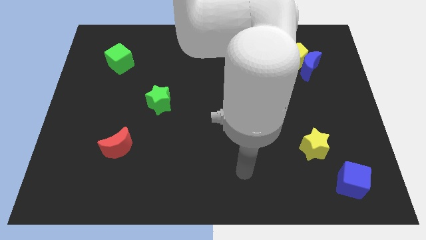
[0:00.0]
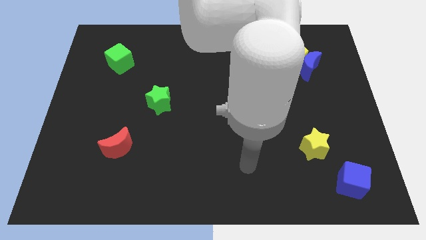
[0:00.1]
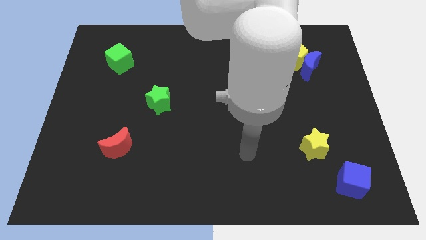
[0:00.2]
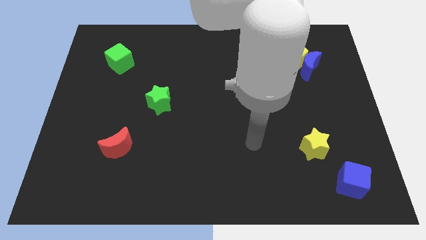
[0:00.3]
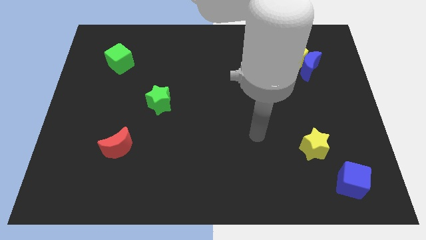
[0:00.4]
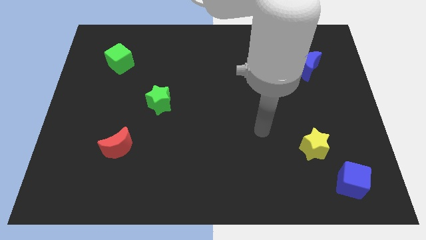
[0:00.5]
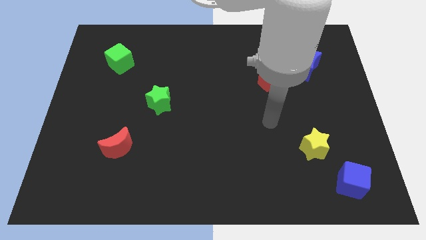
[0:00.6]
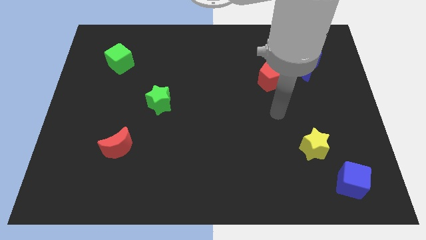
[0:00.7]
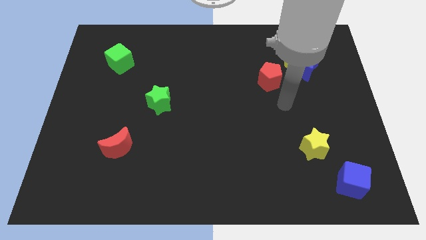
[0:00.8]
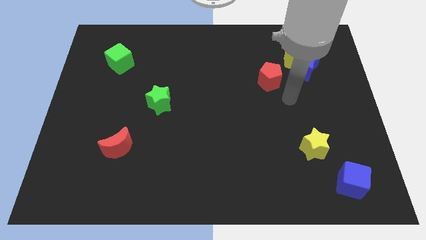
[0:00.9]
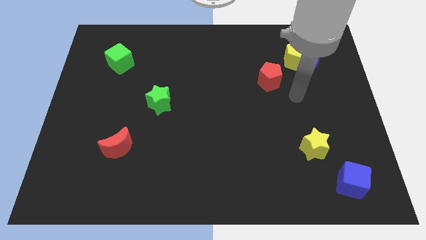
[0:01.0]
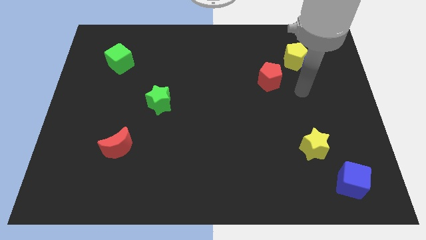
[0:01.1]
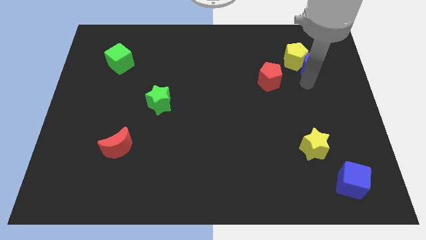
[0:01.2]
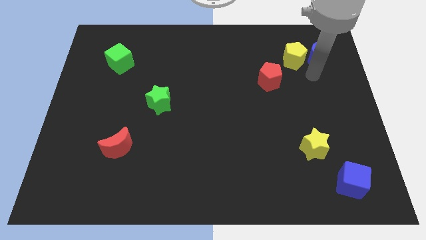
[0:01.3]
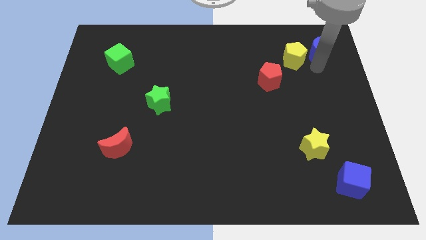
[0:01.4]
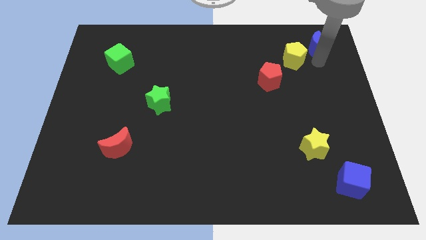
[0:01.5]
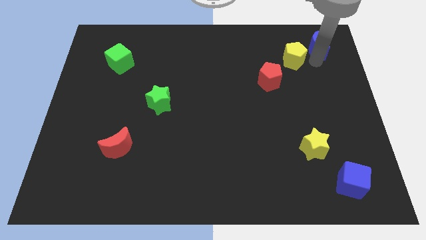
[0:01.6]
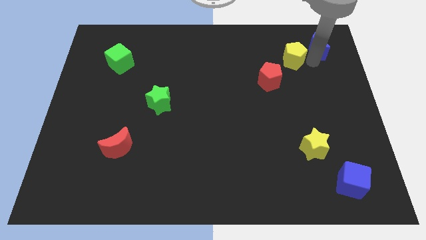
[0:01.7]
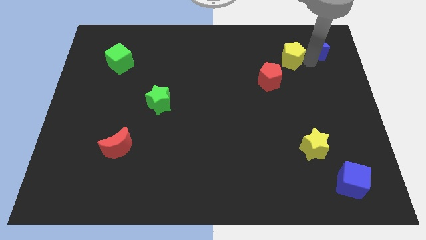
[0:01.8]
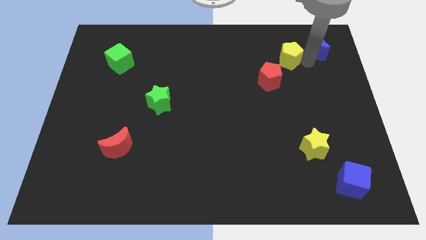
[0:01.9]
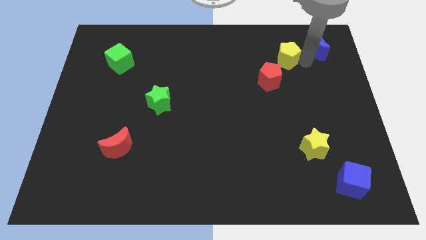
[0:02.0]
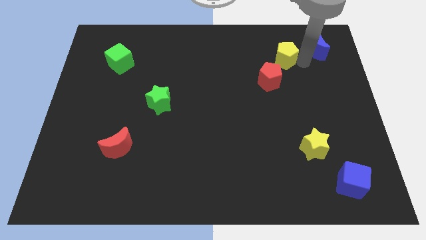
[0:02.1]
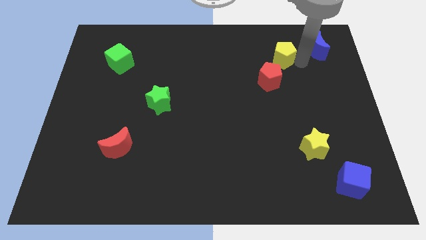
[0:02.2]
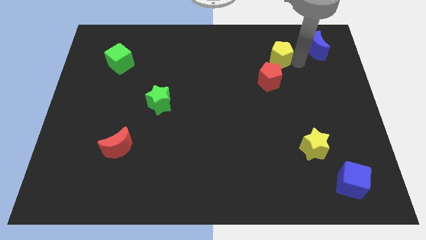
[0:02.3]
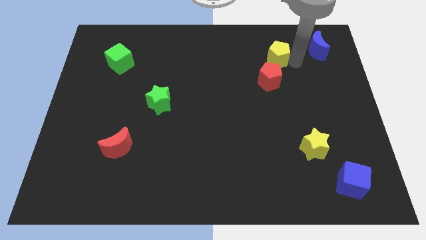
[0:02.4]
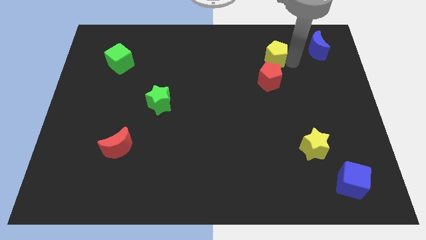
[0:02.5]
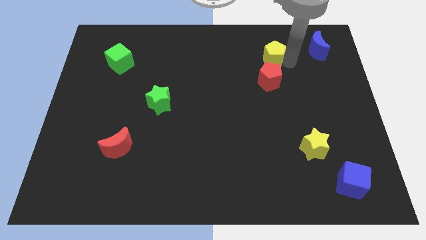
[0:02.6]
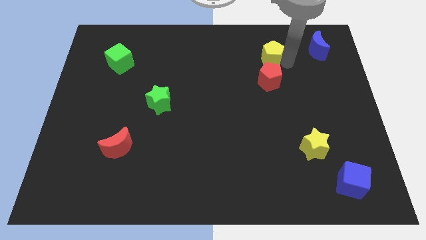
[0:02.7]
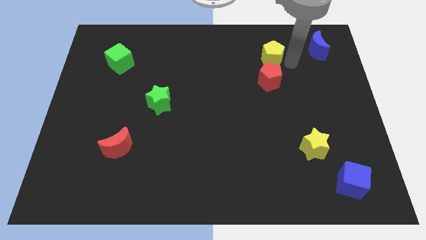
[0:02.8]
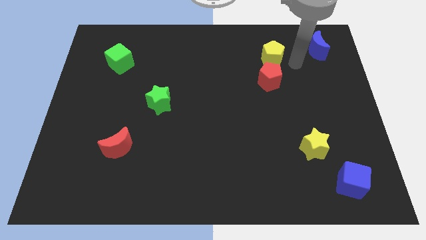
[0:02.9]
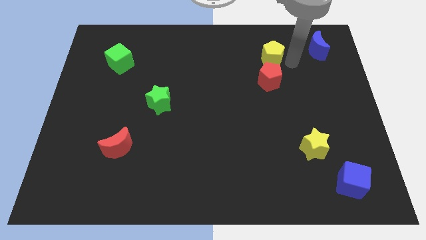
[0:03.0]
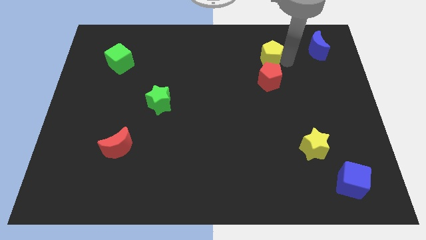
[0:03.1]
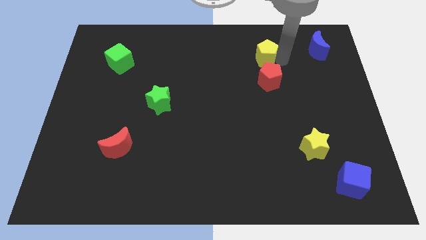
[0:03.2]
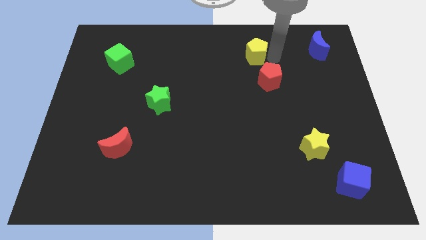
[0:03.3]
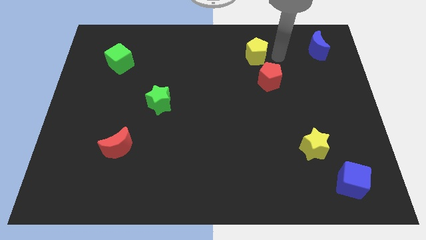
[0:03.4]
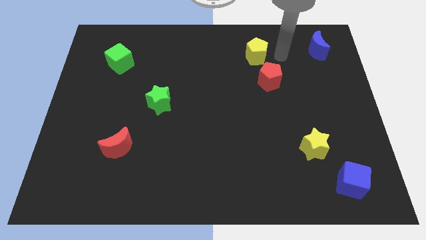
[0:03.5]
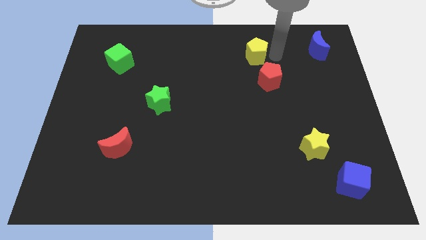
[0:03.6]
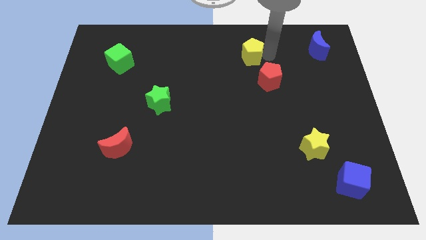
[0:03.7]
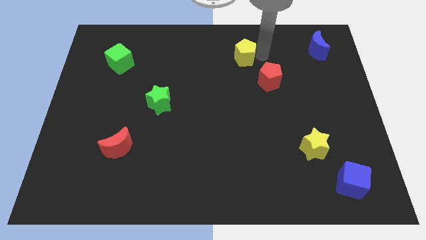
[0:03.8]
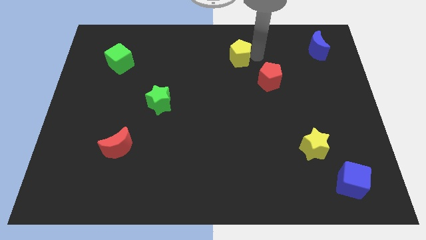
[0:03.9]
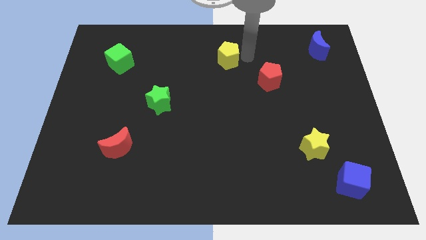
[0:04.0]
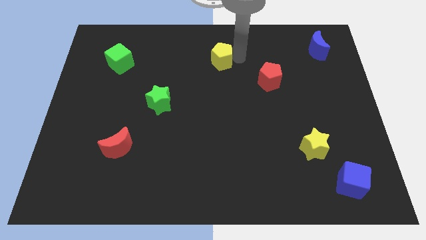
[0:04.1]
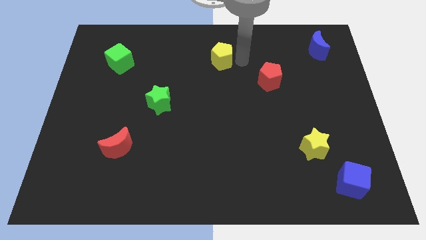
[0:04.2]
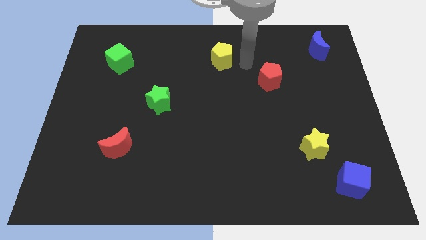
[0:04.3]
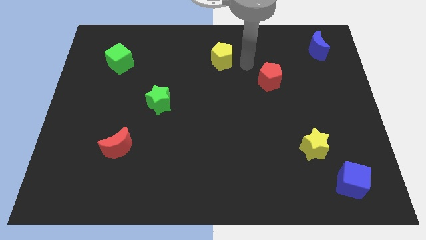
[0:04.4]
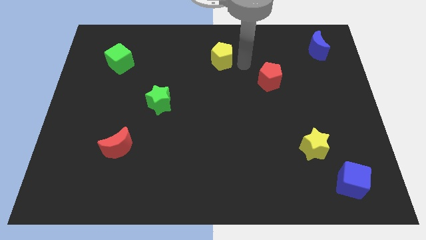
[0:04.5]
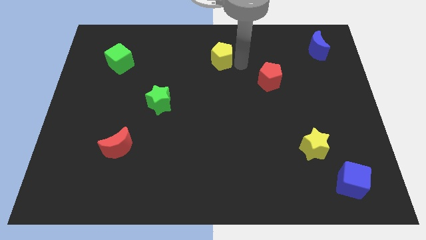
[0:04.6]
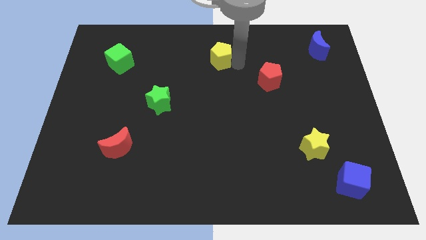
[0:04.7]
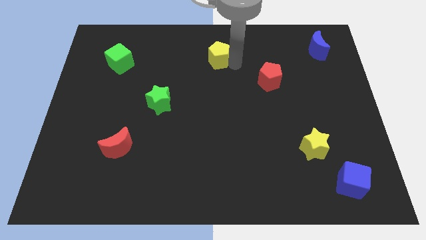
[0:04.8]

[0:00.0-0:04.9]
slide the yellow pentagon left

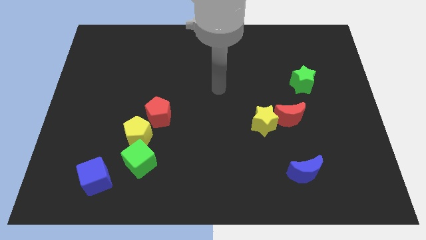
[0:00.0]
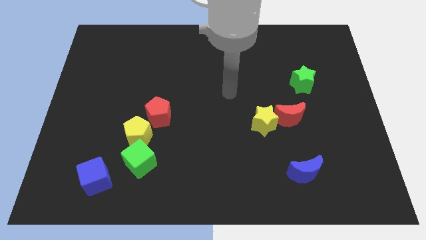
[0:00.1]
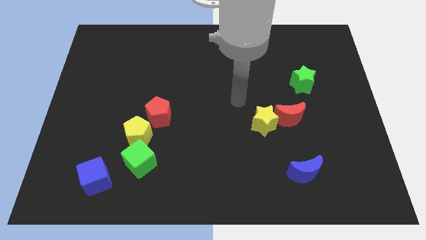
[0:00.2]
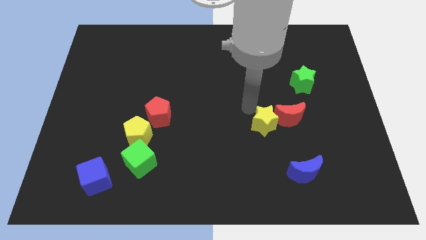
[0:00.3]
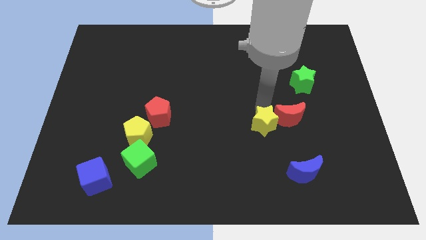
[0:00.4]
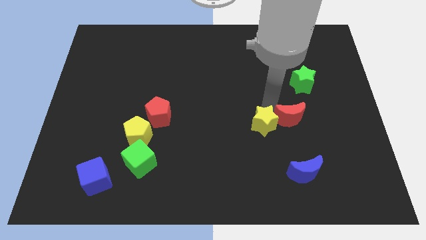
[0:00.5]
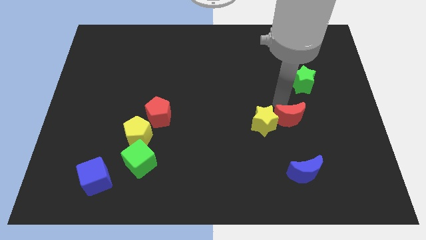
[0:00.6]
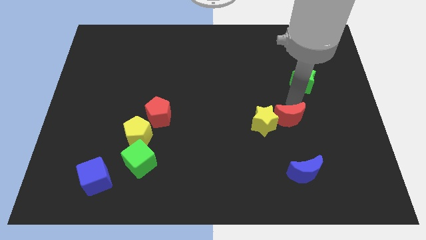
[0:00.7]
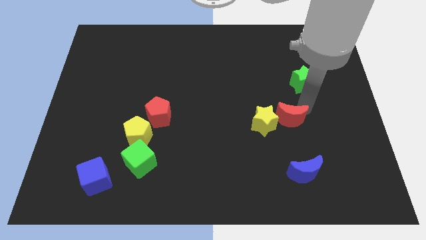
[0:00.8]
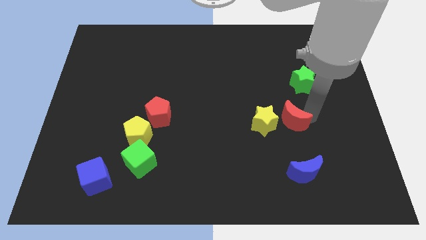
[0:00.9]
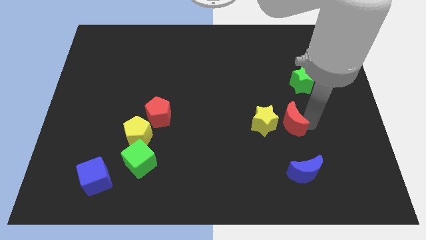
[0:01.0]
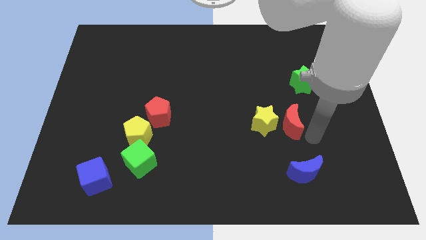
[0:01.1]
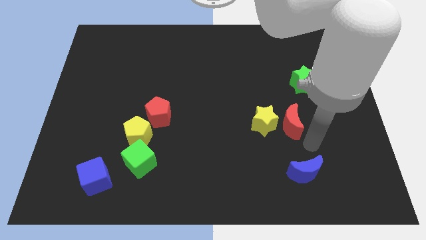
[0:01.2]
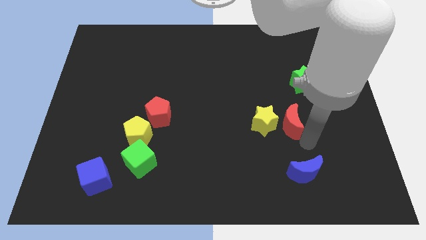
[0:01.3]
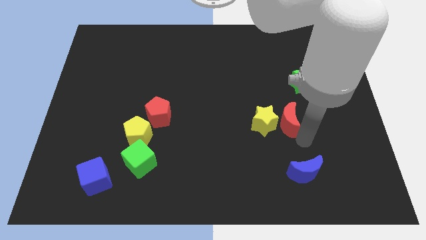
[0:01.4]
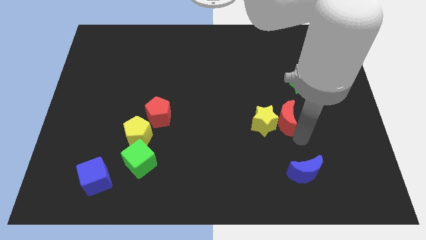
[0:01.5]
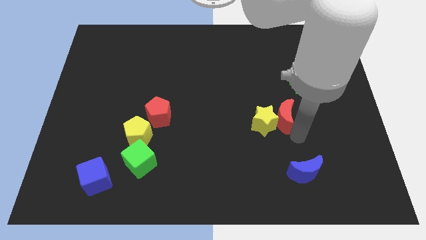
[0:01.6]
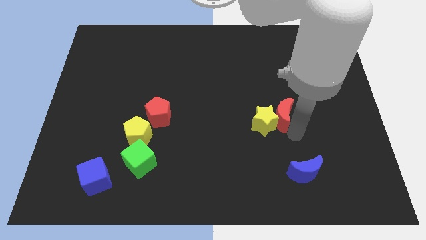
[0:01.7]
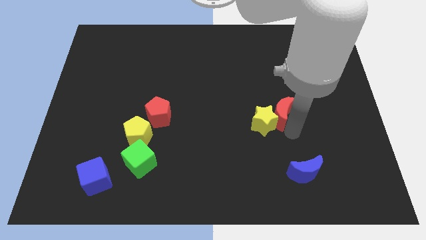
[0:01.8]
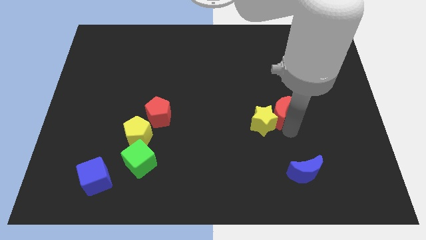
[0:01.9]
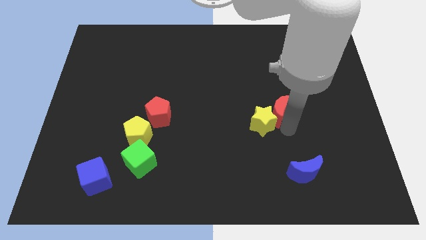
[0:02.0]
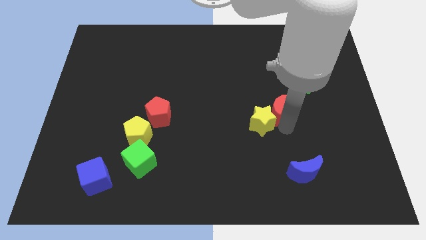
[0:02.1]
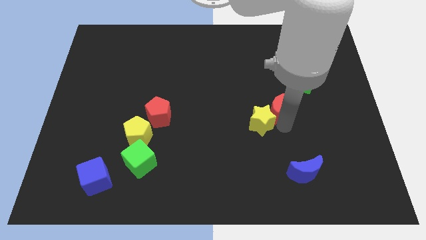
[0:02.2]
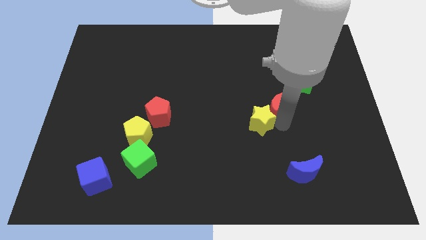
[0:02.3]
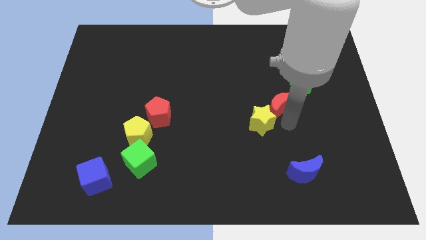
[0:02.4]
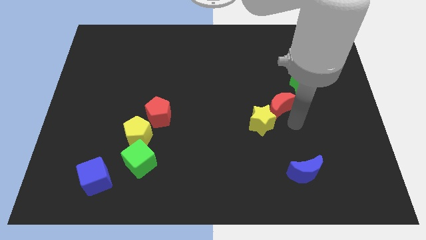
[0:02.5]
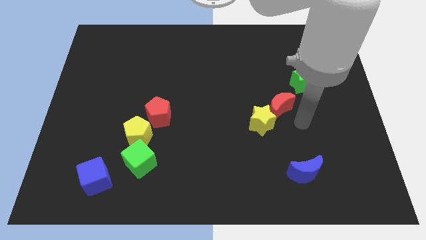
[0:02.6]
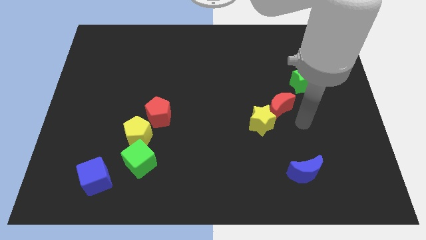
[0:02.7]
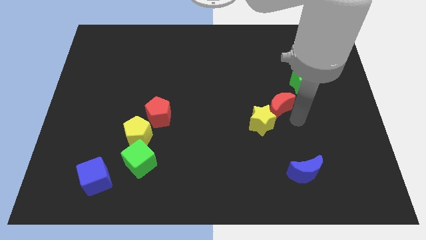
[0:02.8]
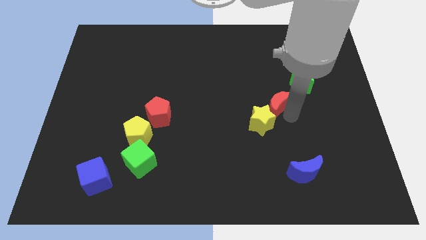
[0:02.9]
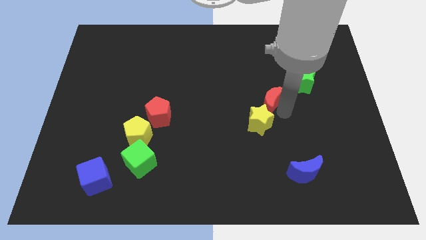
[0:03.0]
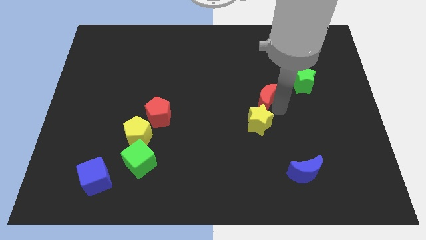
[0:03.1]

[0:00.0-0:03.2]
slightly push the red moon diagonally upwards and to the left
